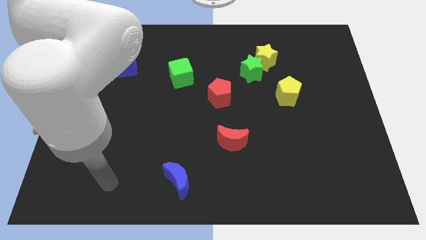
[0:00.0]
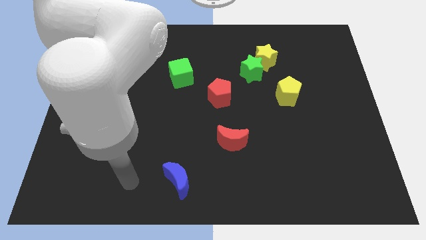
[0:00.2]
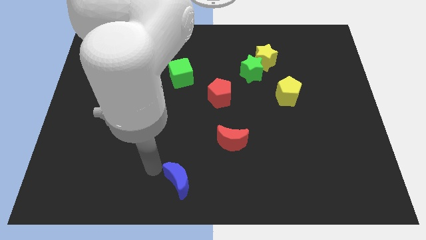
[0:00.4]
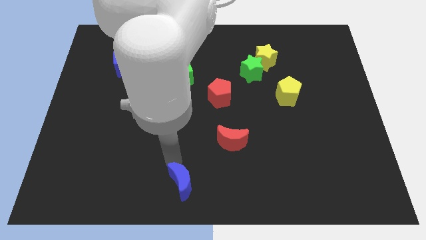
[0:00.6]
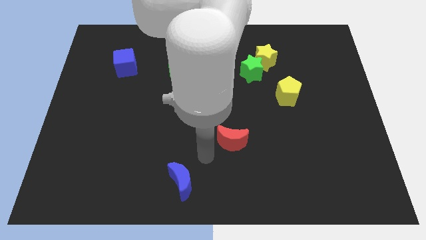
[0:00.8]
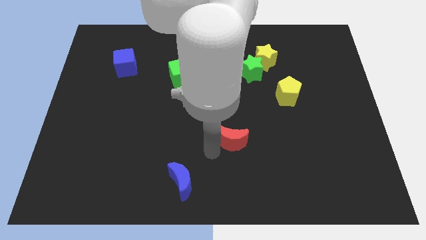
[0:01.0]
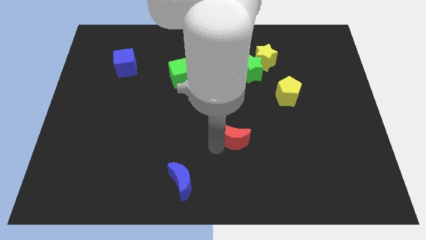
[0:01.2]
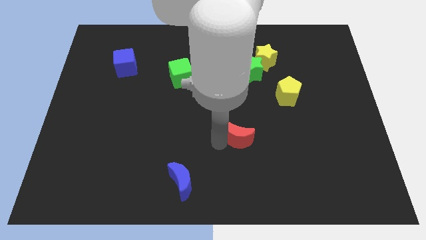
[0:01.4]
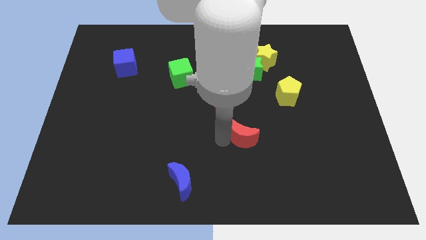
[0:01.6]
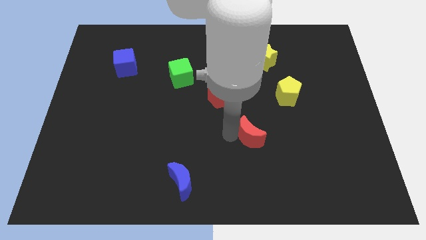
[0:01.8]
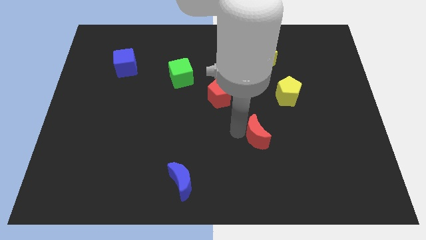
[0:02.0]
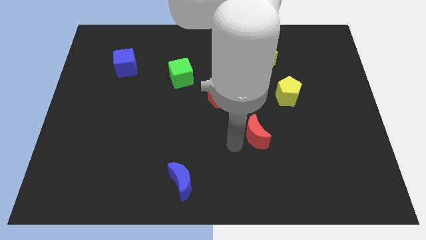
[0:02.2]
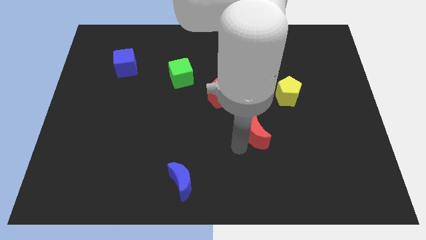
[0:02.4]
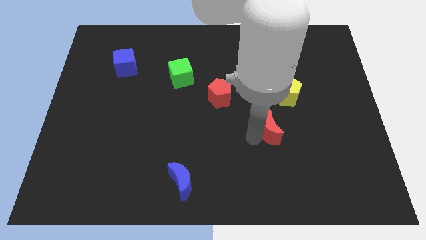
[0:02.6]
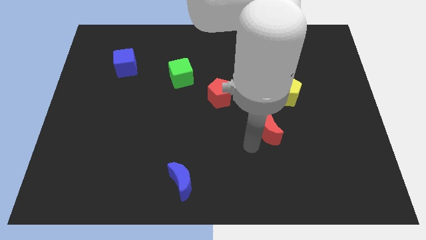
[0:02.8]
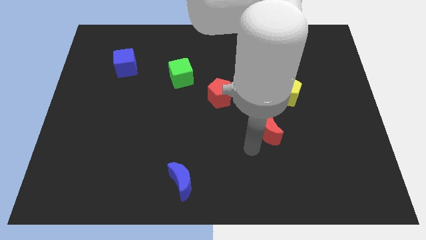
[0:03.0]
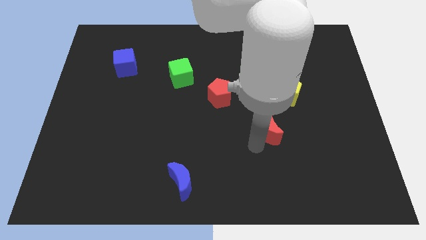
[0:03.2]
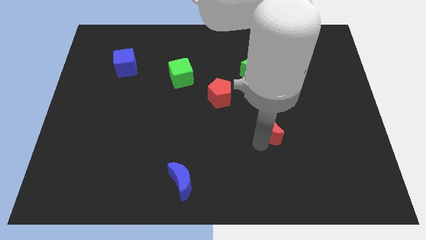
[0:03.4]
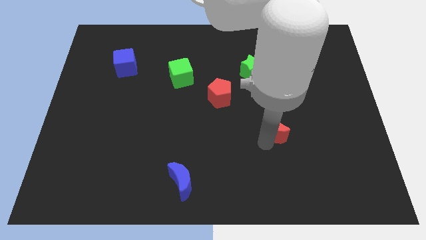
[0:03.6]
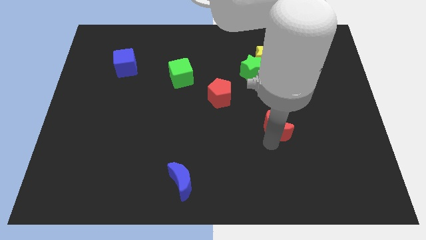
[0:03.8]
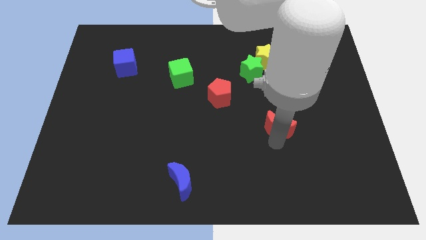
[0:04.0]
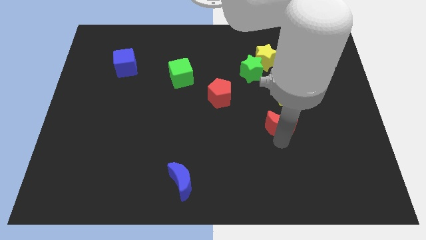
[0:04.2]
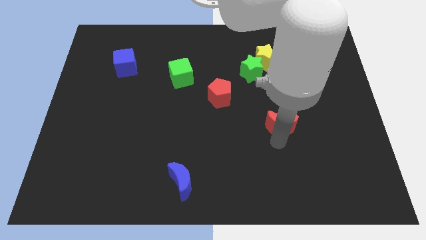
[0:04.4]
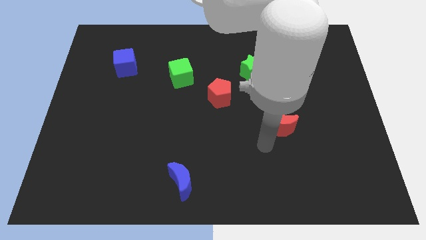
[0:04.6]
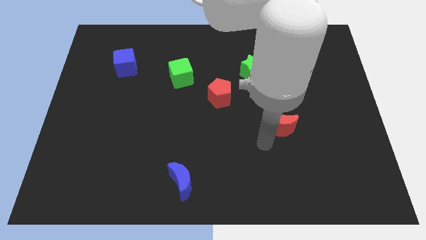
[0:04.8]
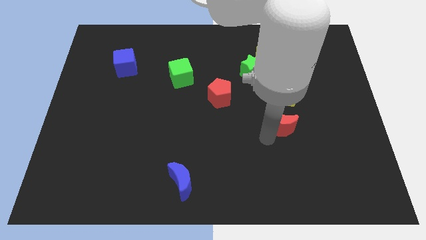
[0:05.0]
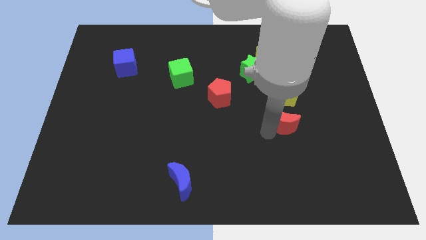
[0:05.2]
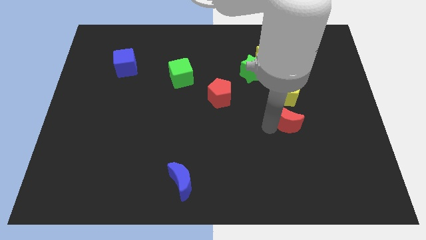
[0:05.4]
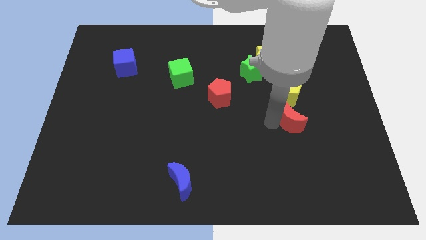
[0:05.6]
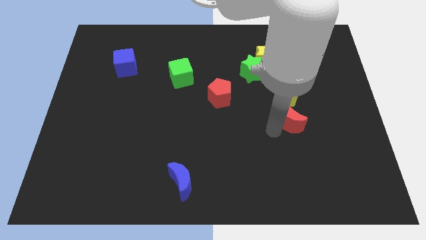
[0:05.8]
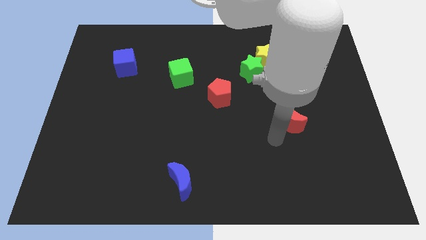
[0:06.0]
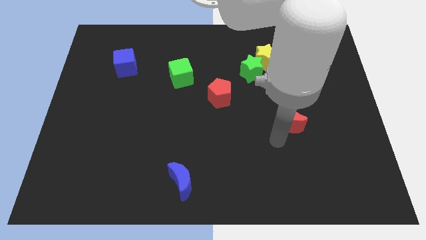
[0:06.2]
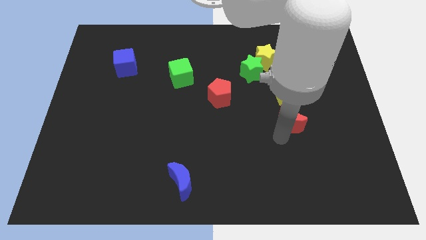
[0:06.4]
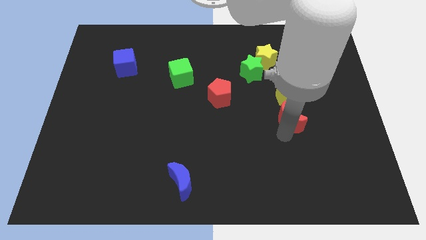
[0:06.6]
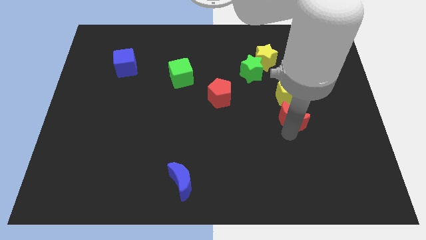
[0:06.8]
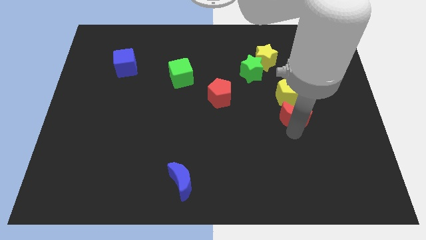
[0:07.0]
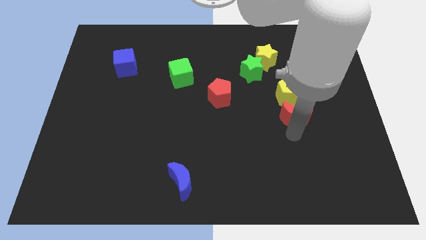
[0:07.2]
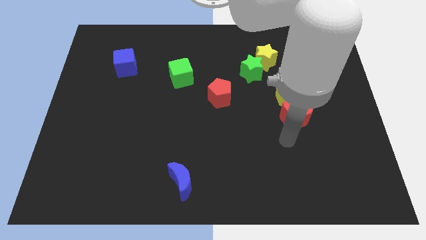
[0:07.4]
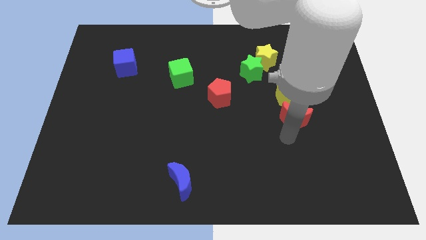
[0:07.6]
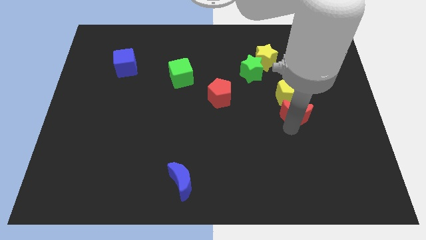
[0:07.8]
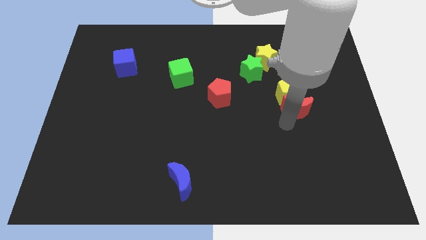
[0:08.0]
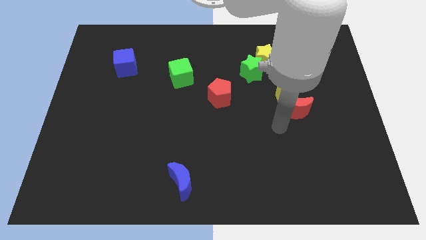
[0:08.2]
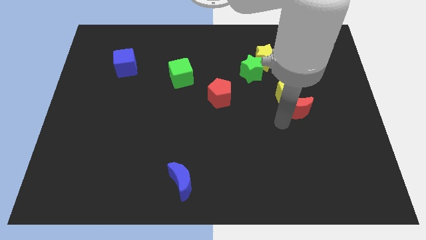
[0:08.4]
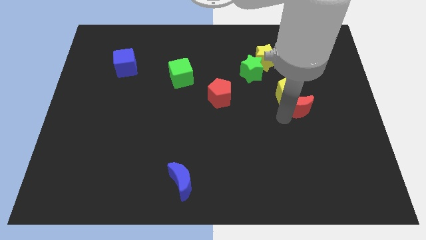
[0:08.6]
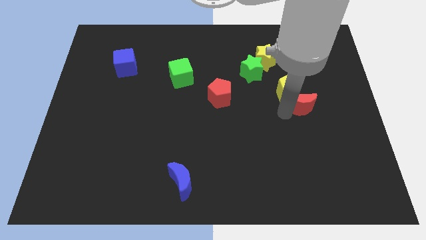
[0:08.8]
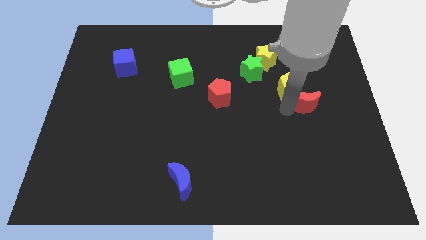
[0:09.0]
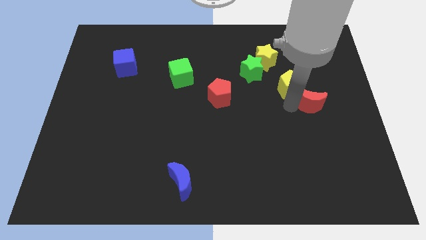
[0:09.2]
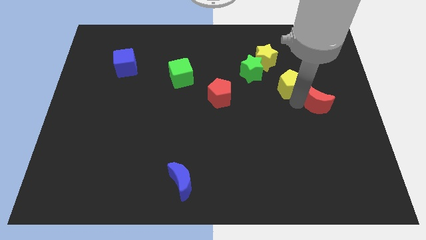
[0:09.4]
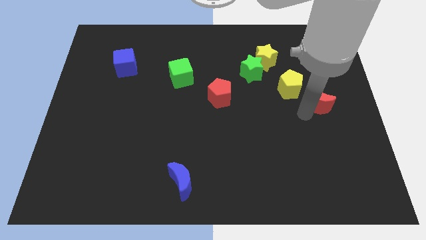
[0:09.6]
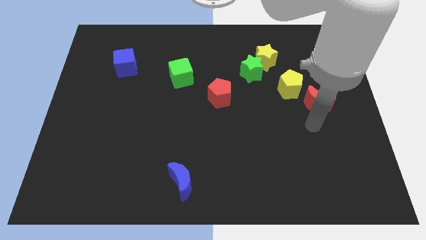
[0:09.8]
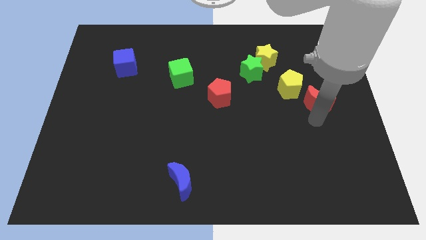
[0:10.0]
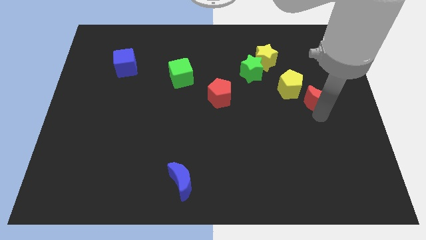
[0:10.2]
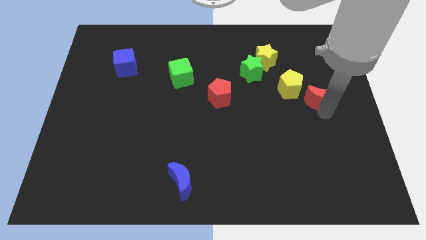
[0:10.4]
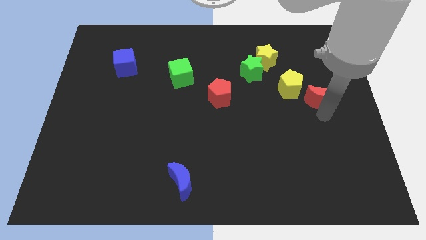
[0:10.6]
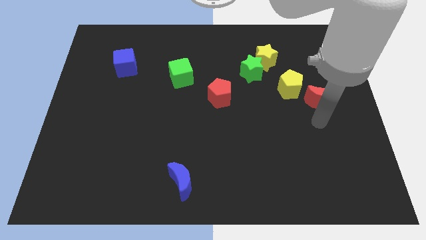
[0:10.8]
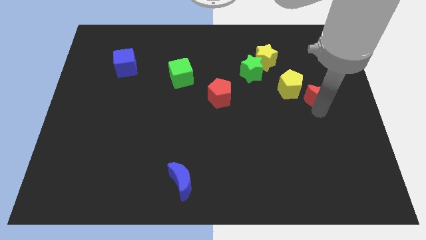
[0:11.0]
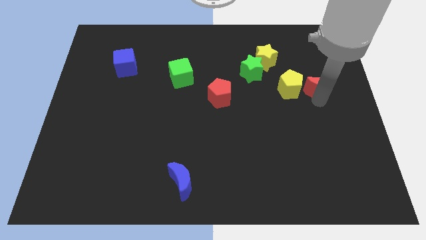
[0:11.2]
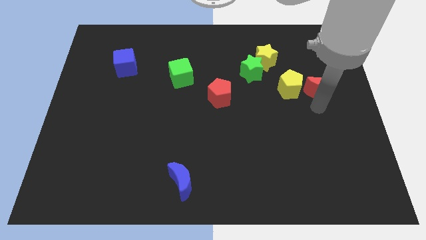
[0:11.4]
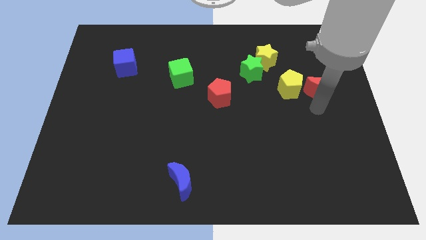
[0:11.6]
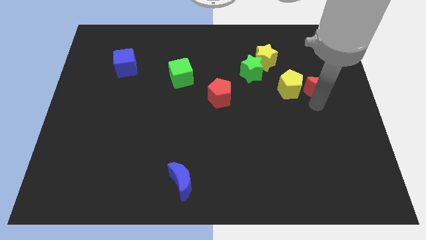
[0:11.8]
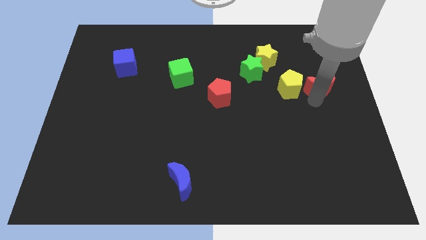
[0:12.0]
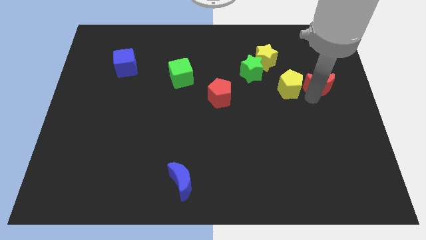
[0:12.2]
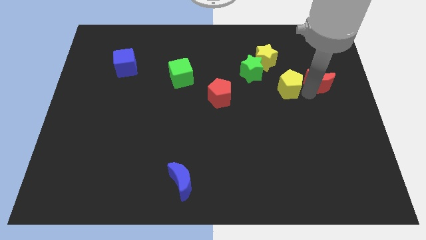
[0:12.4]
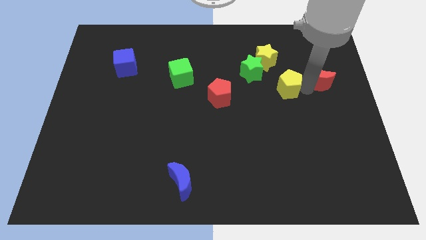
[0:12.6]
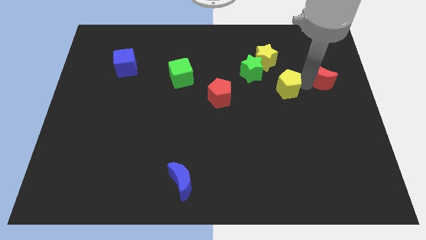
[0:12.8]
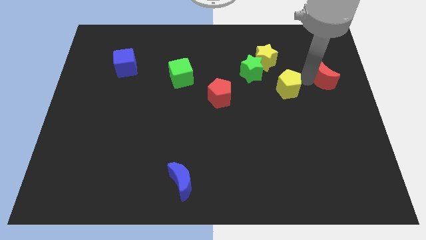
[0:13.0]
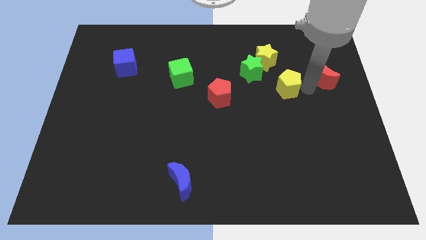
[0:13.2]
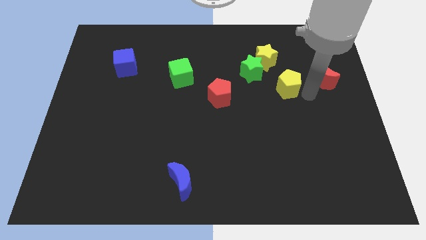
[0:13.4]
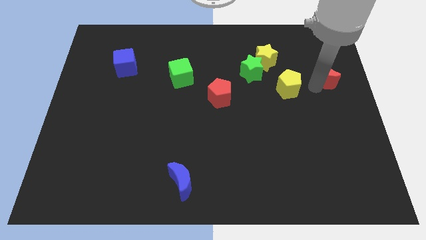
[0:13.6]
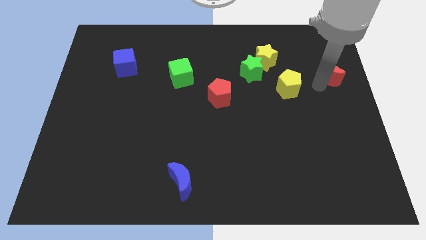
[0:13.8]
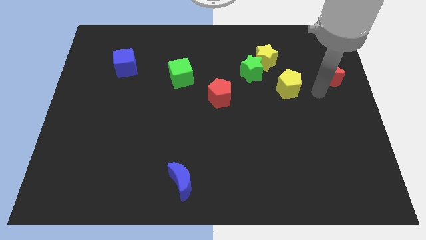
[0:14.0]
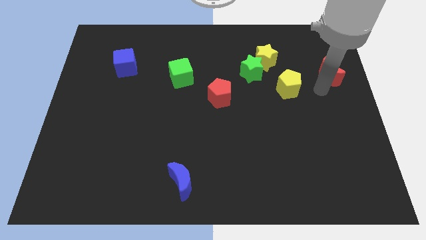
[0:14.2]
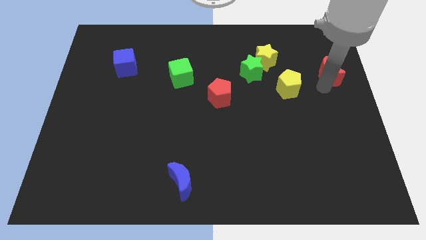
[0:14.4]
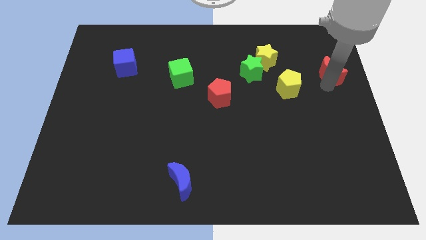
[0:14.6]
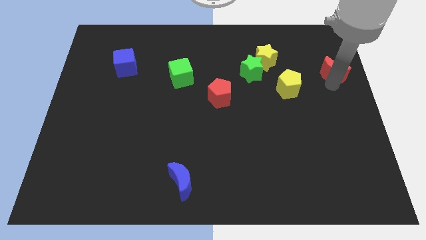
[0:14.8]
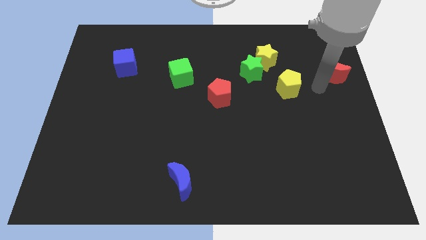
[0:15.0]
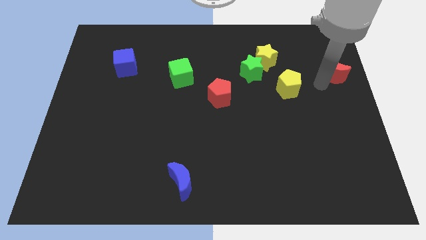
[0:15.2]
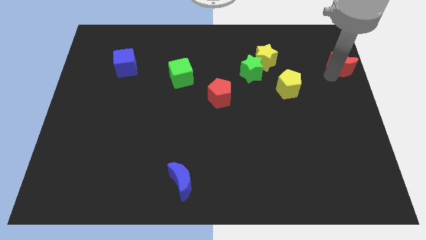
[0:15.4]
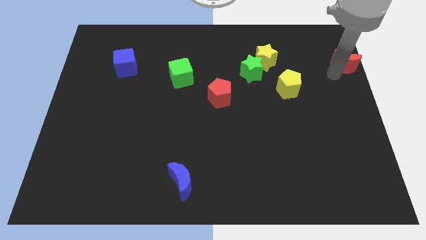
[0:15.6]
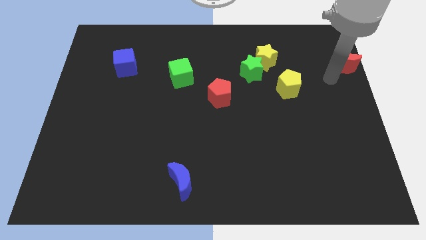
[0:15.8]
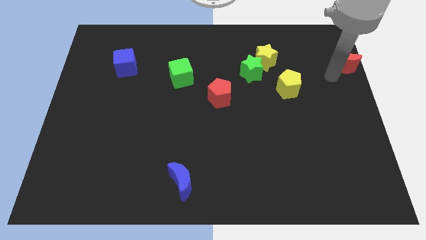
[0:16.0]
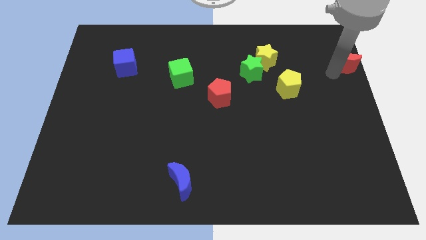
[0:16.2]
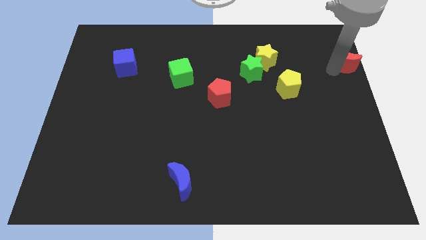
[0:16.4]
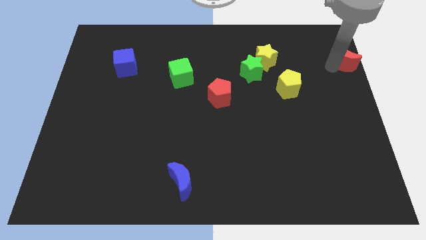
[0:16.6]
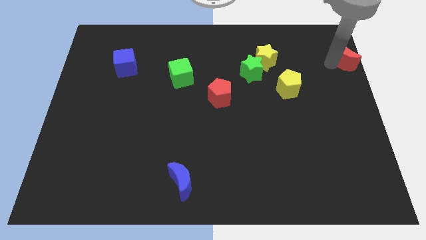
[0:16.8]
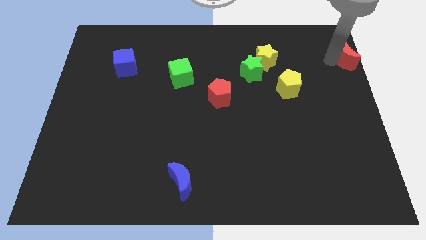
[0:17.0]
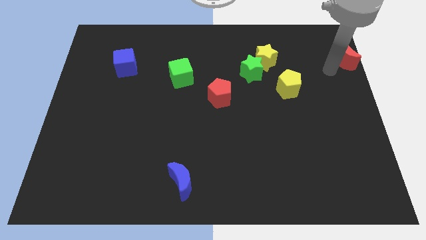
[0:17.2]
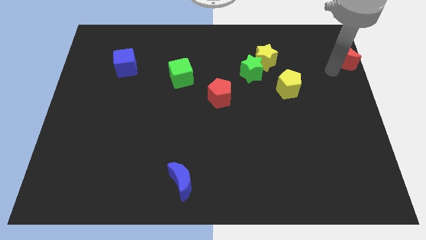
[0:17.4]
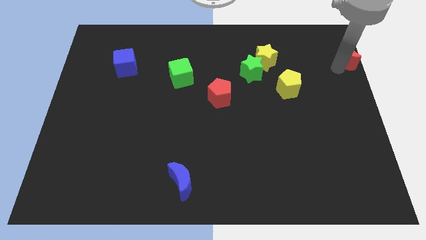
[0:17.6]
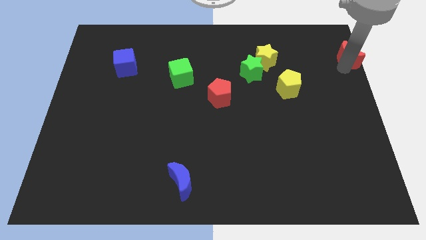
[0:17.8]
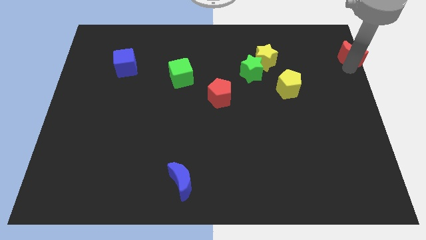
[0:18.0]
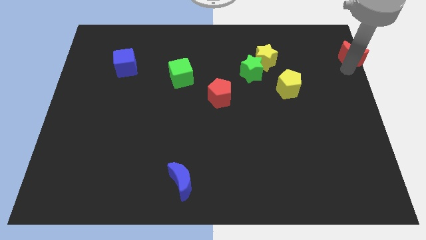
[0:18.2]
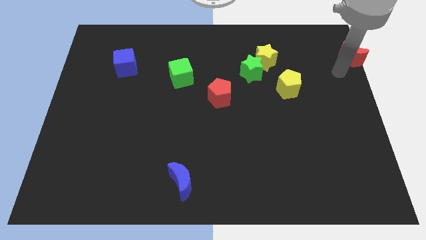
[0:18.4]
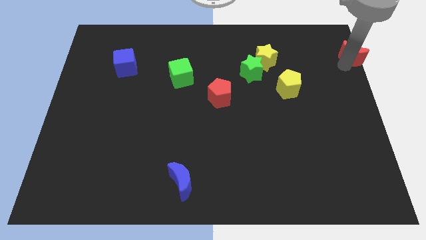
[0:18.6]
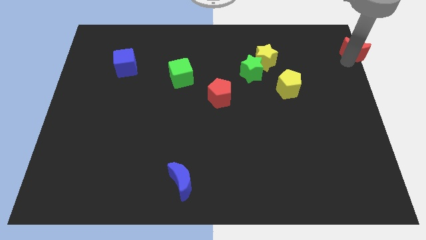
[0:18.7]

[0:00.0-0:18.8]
push the red moon to the top right of the board
